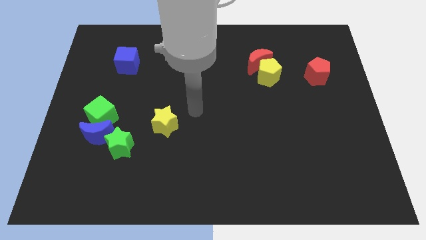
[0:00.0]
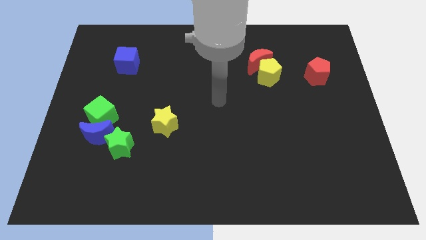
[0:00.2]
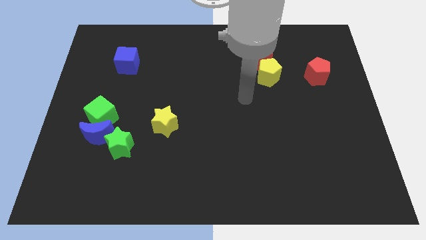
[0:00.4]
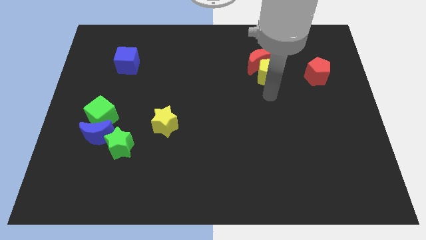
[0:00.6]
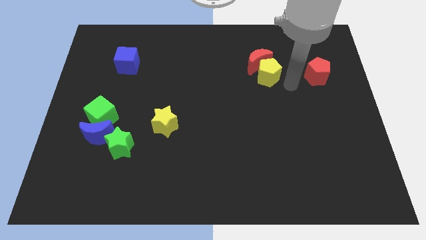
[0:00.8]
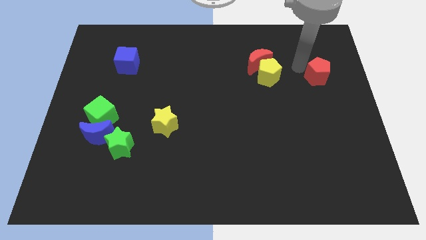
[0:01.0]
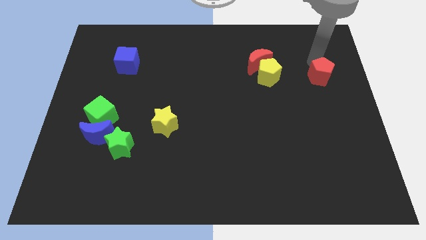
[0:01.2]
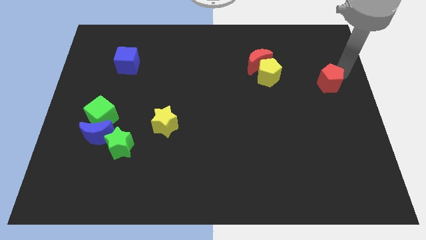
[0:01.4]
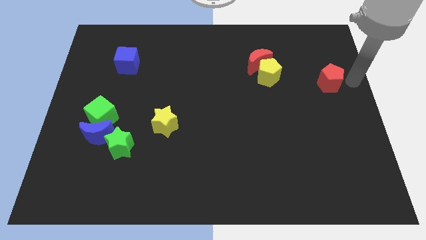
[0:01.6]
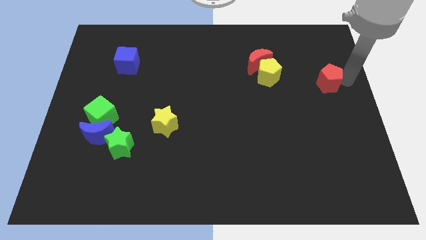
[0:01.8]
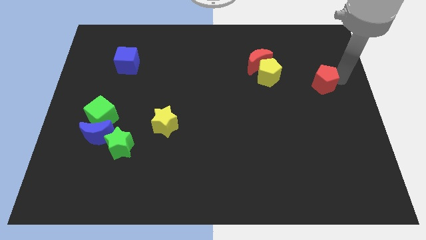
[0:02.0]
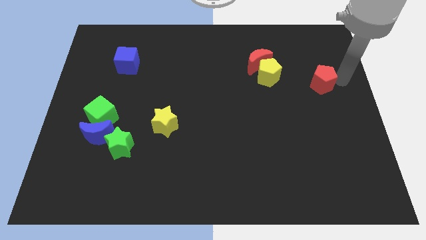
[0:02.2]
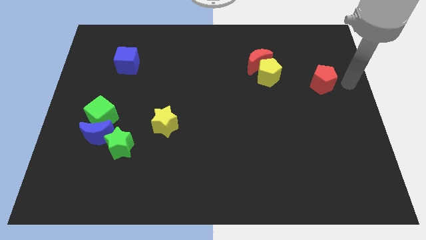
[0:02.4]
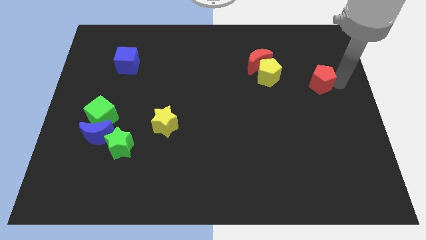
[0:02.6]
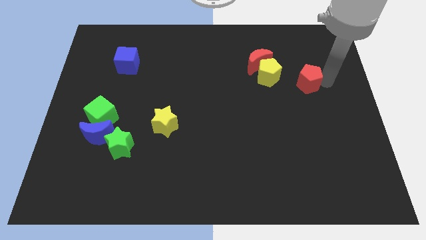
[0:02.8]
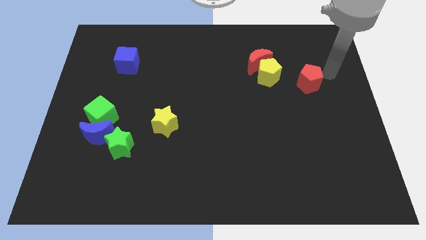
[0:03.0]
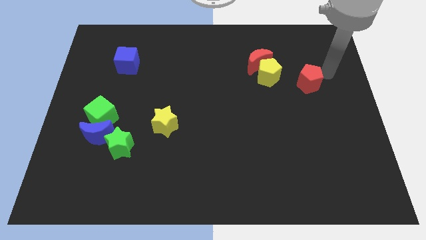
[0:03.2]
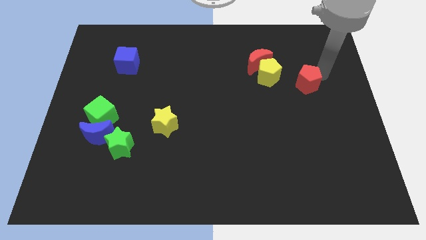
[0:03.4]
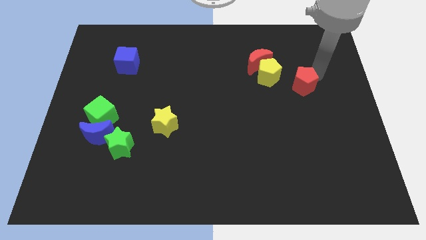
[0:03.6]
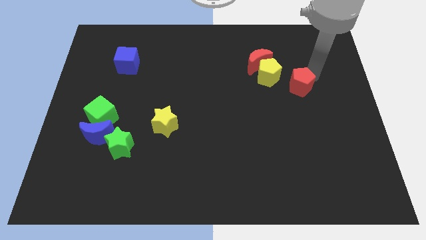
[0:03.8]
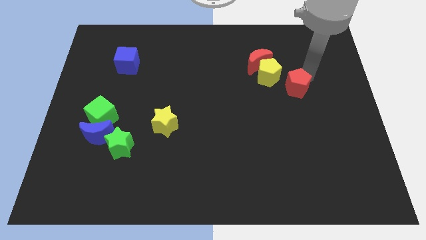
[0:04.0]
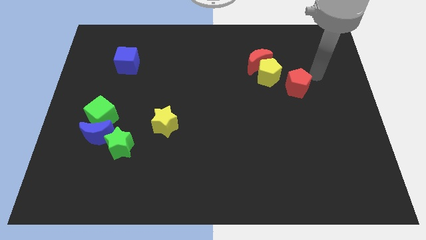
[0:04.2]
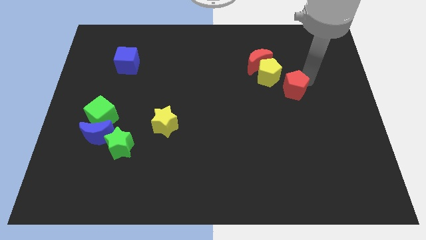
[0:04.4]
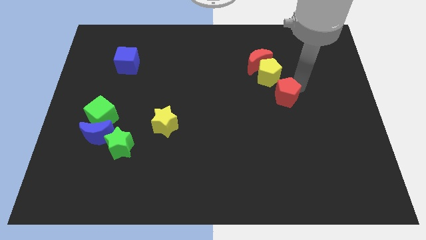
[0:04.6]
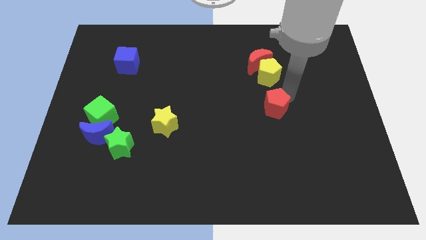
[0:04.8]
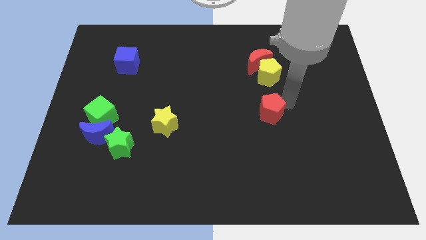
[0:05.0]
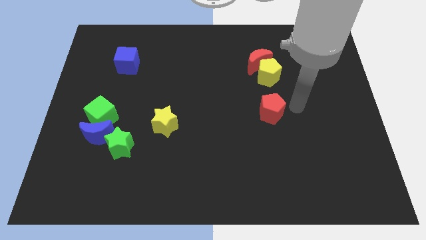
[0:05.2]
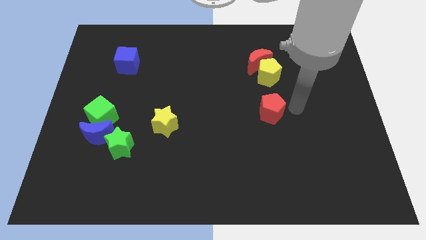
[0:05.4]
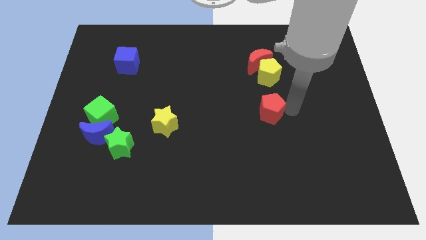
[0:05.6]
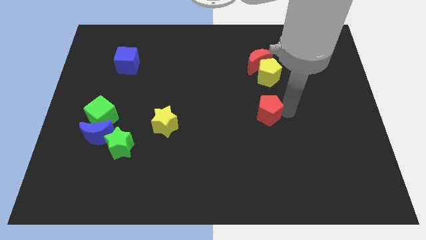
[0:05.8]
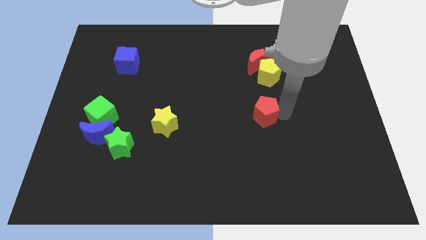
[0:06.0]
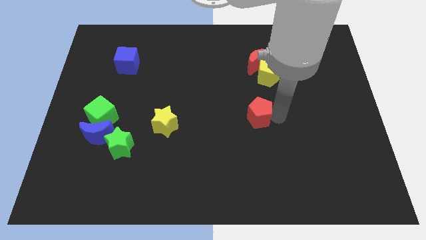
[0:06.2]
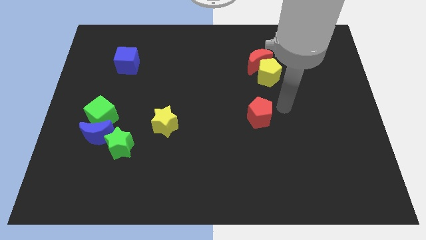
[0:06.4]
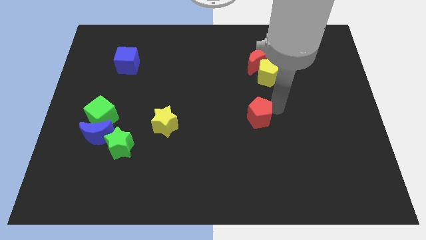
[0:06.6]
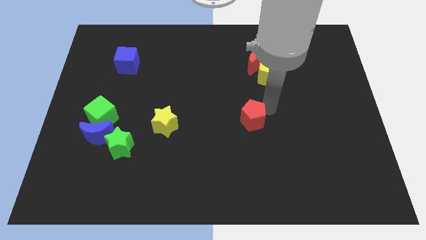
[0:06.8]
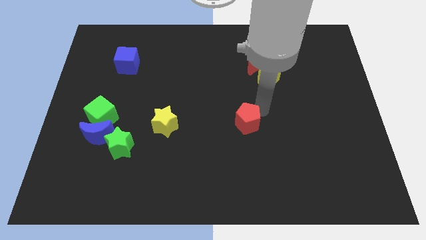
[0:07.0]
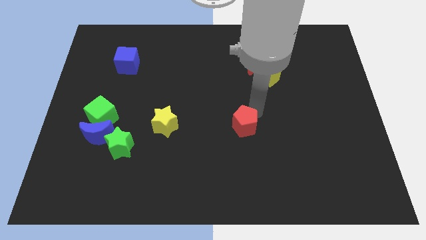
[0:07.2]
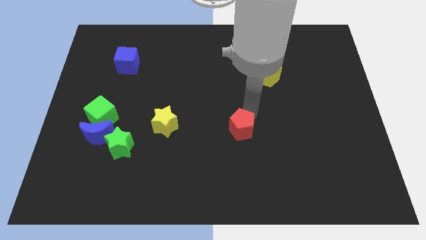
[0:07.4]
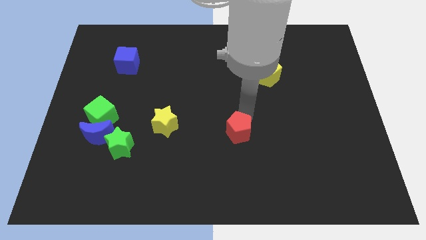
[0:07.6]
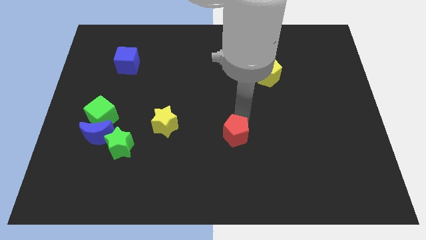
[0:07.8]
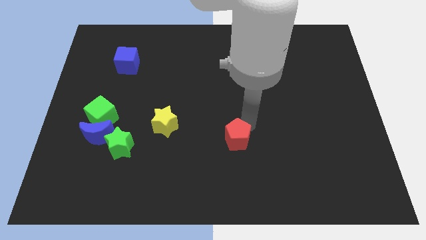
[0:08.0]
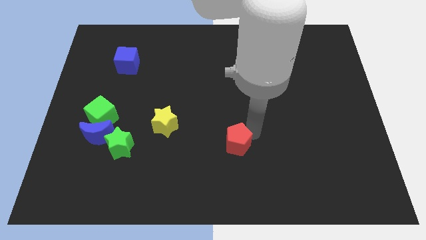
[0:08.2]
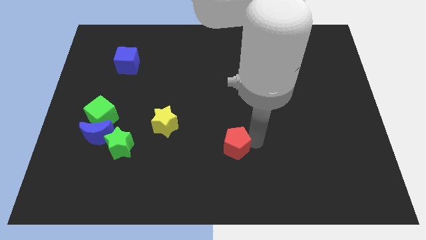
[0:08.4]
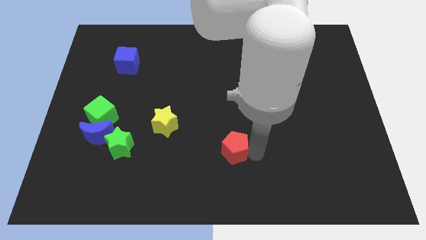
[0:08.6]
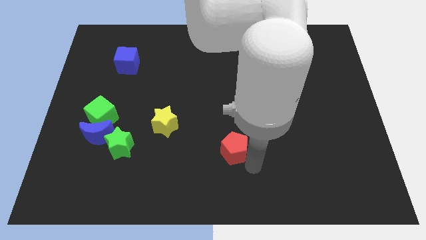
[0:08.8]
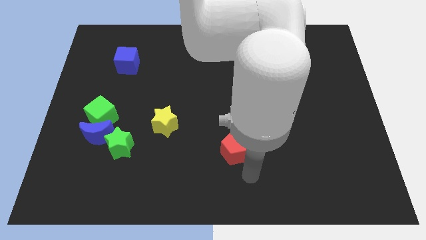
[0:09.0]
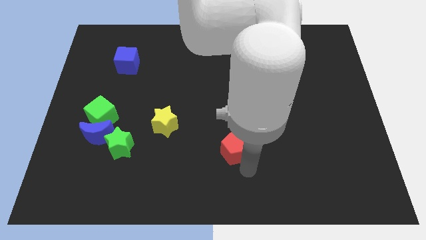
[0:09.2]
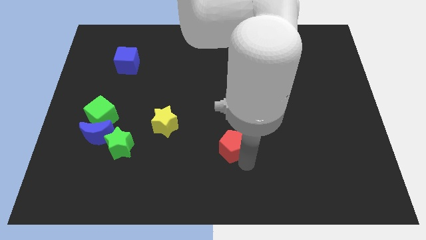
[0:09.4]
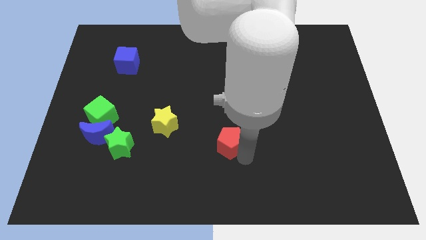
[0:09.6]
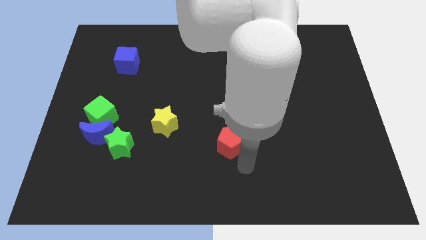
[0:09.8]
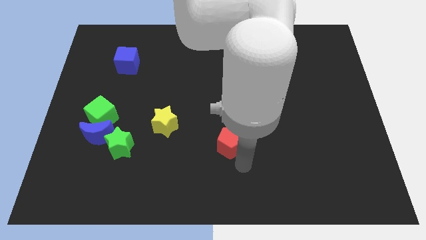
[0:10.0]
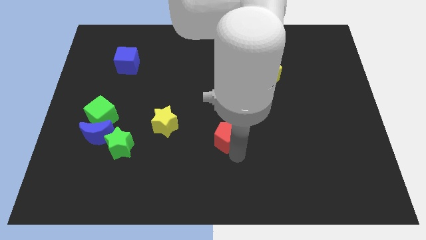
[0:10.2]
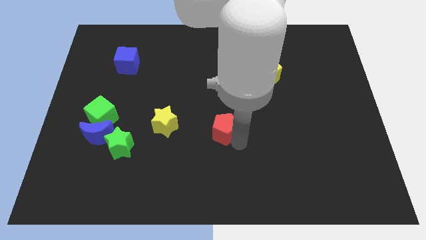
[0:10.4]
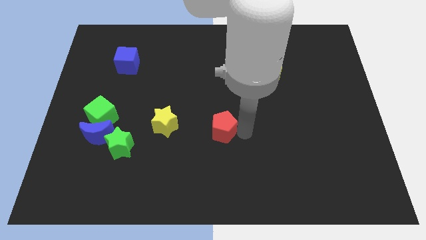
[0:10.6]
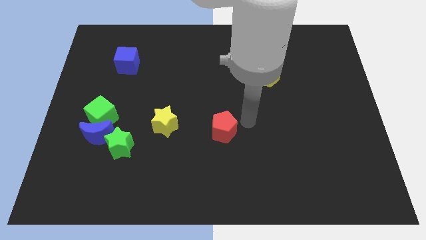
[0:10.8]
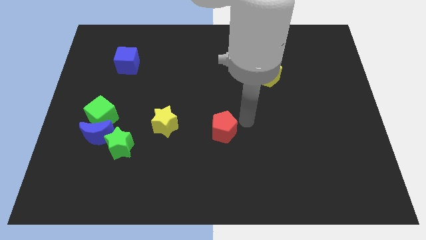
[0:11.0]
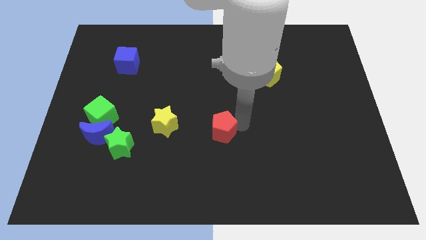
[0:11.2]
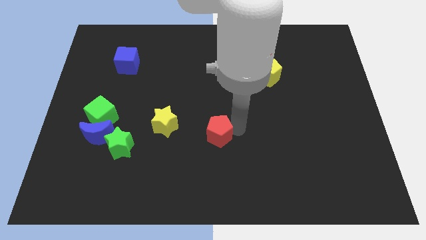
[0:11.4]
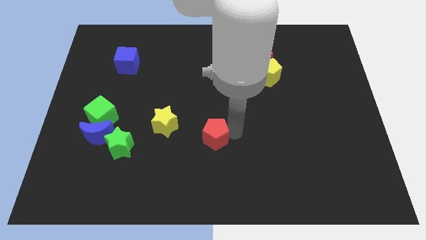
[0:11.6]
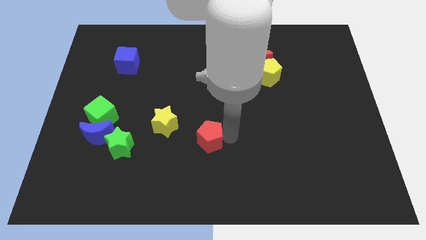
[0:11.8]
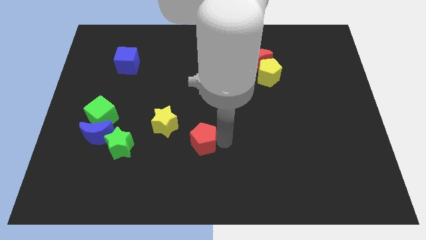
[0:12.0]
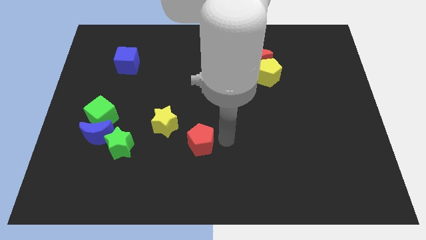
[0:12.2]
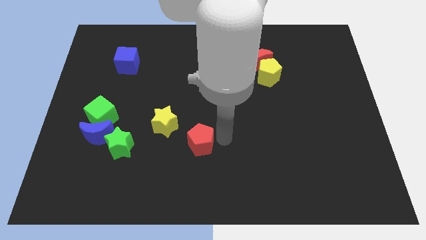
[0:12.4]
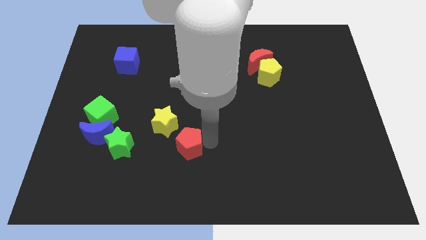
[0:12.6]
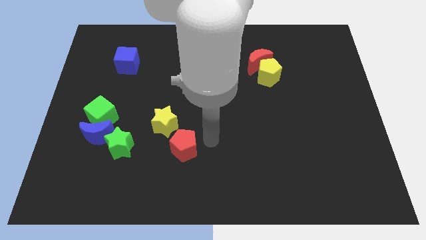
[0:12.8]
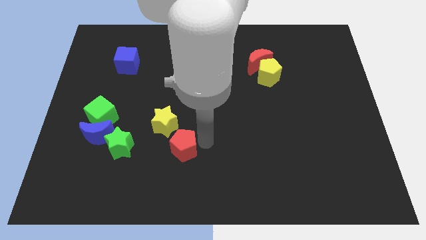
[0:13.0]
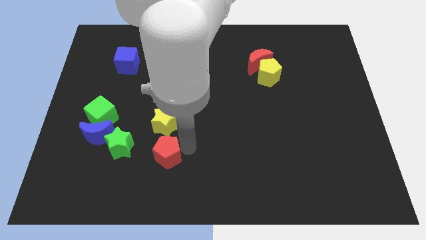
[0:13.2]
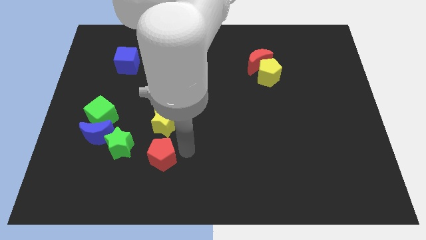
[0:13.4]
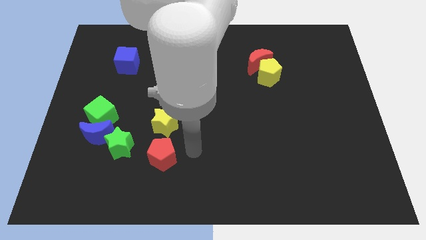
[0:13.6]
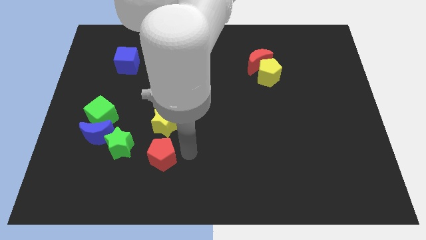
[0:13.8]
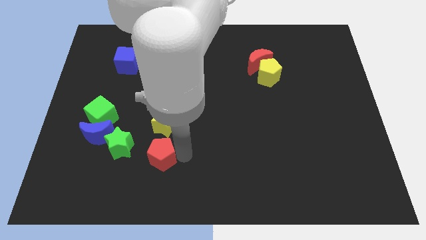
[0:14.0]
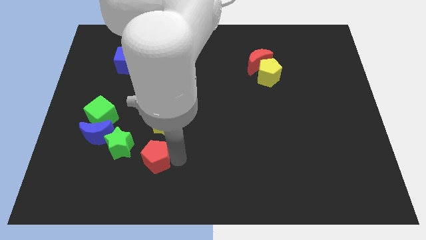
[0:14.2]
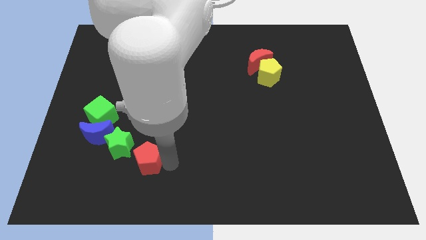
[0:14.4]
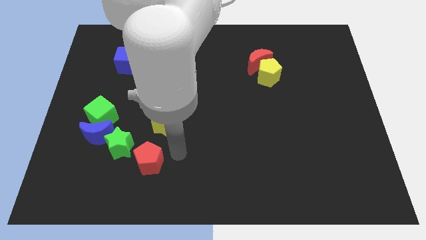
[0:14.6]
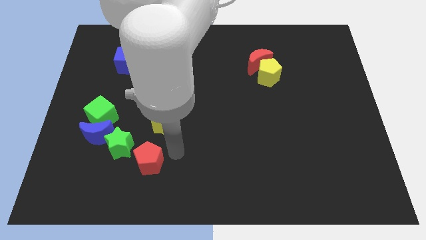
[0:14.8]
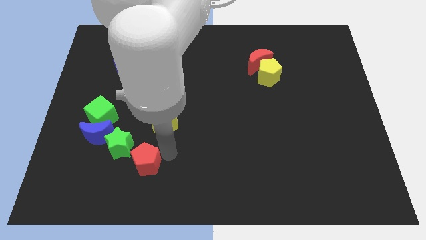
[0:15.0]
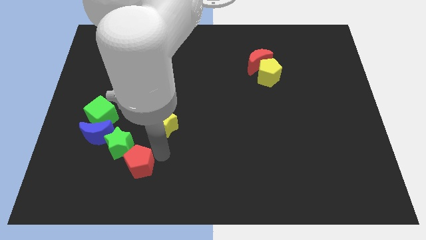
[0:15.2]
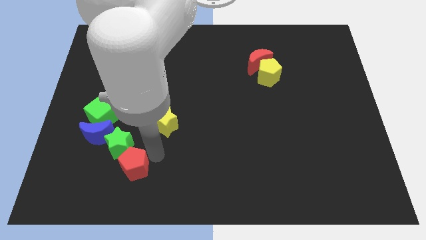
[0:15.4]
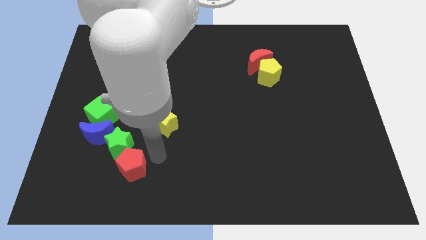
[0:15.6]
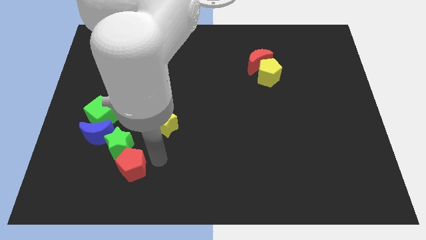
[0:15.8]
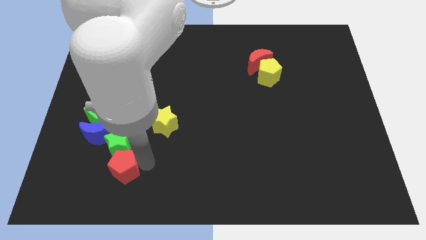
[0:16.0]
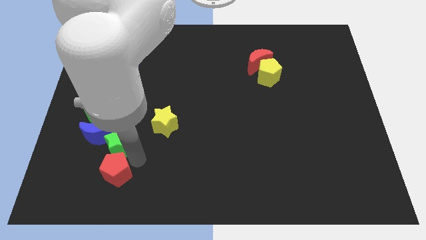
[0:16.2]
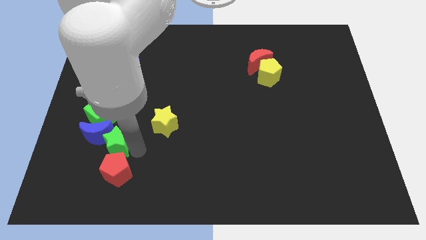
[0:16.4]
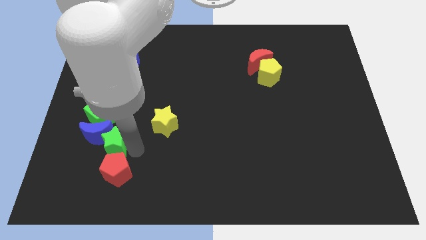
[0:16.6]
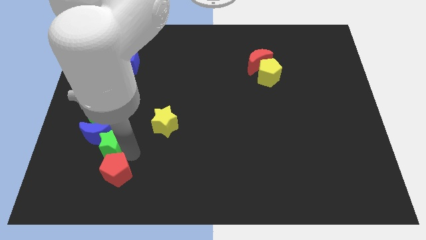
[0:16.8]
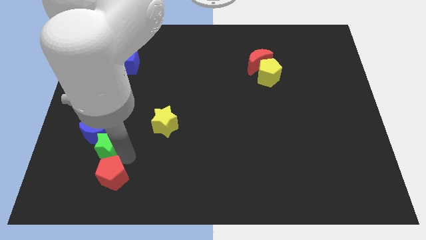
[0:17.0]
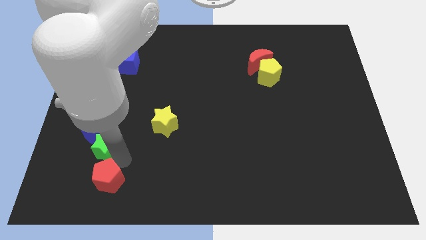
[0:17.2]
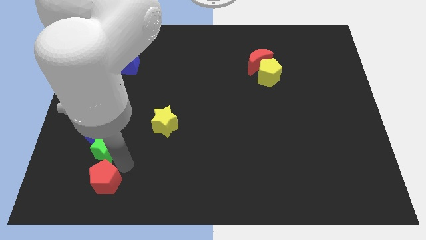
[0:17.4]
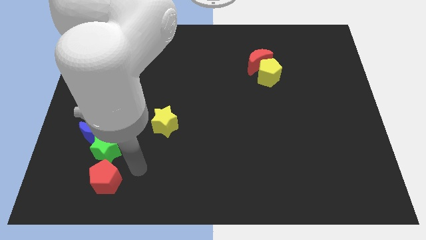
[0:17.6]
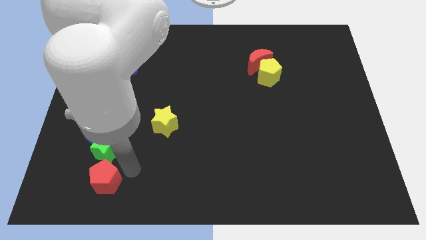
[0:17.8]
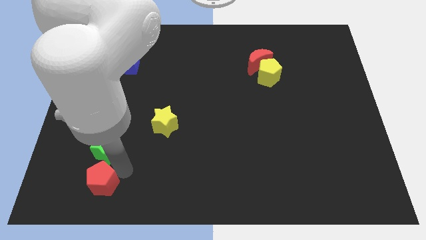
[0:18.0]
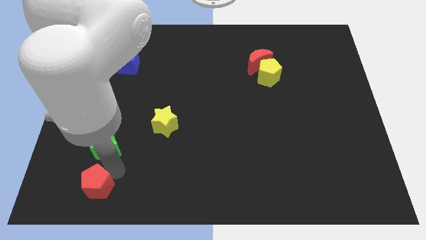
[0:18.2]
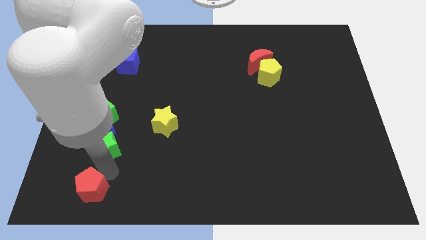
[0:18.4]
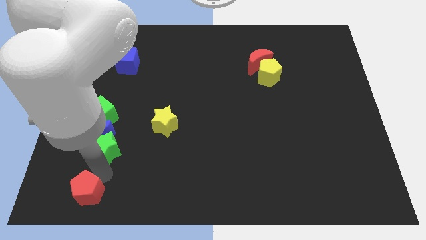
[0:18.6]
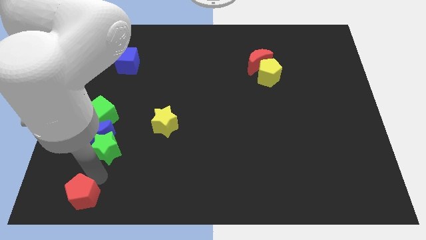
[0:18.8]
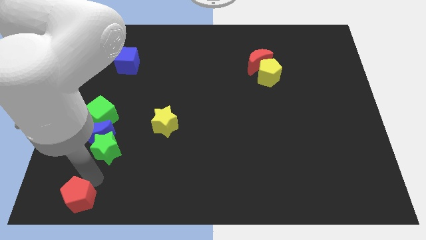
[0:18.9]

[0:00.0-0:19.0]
put the red pentagon to the bottom left
